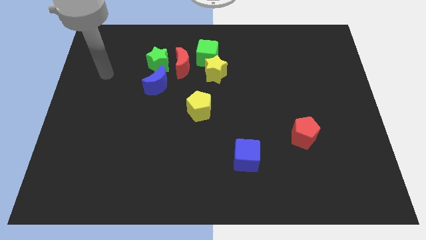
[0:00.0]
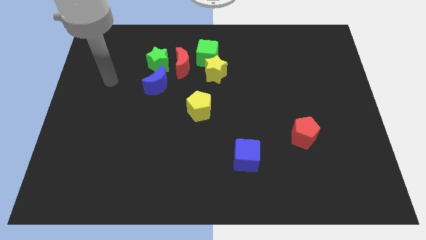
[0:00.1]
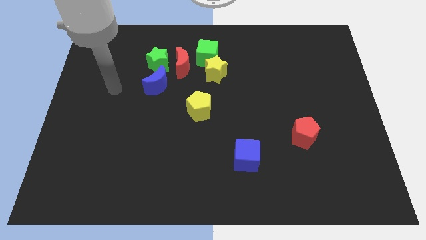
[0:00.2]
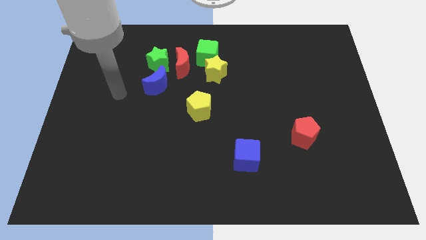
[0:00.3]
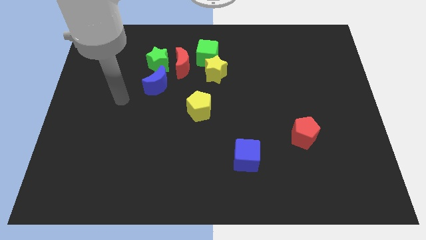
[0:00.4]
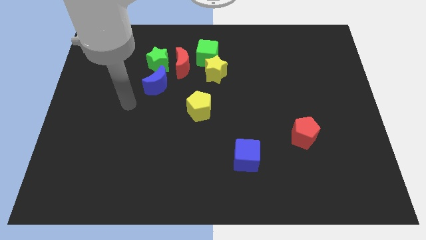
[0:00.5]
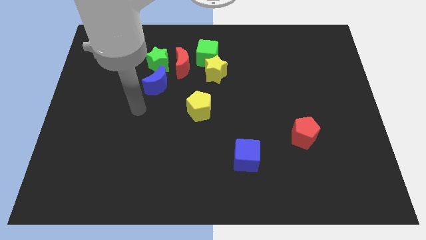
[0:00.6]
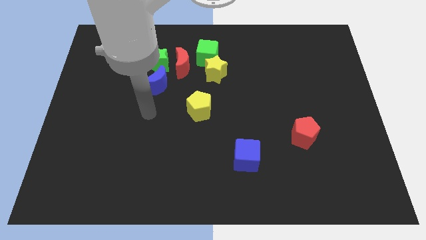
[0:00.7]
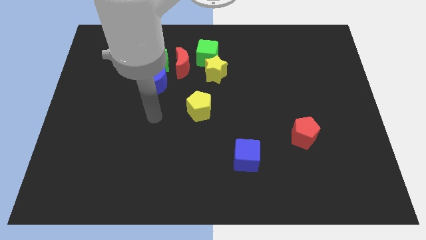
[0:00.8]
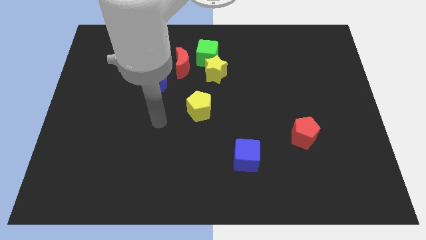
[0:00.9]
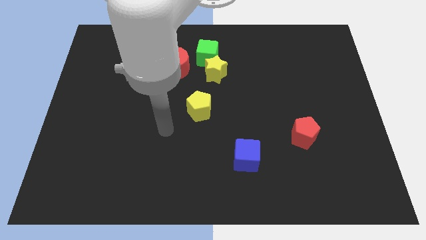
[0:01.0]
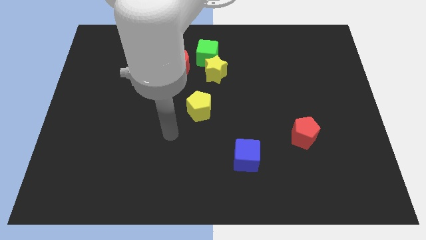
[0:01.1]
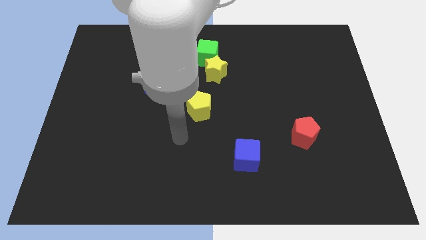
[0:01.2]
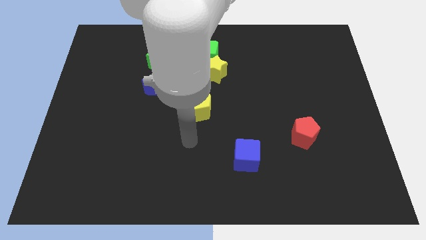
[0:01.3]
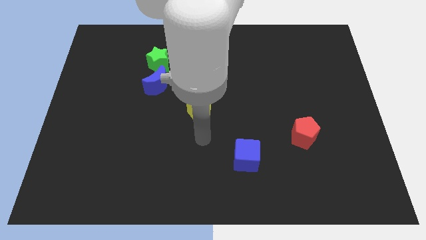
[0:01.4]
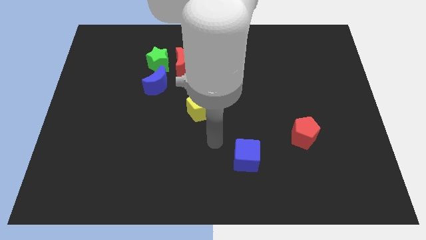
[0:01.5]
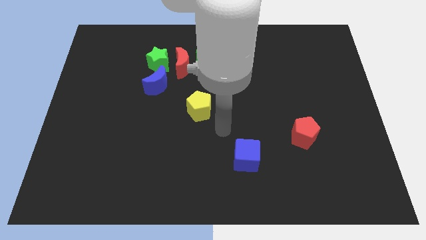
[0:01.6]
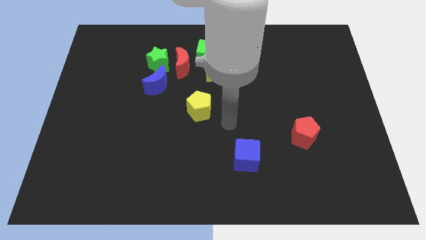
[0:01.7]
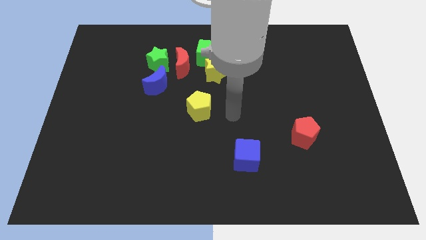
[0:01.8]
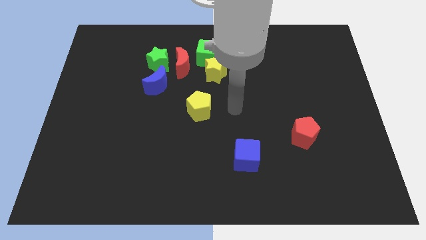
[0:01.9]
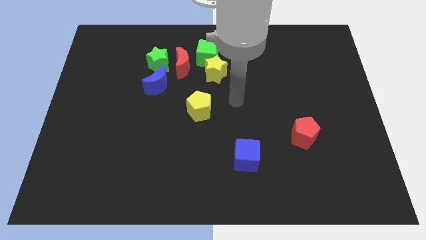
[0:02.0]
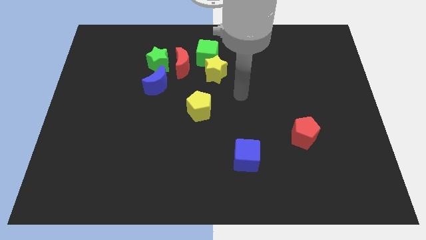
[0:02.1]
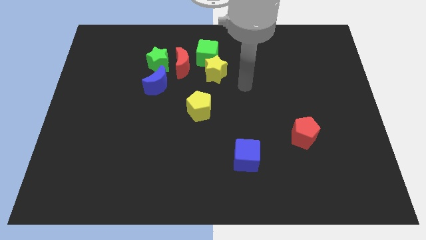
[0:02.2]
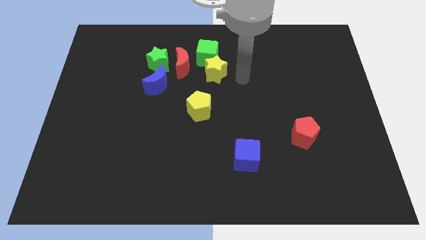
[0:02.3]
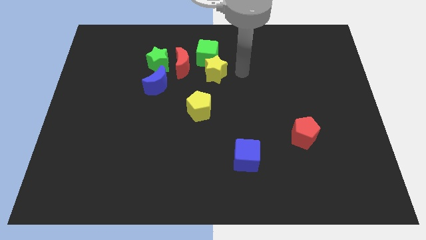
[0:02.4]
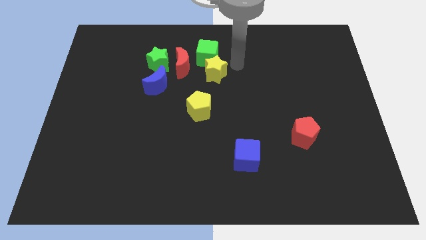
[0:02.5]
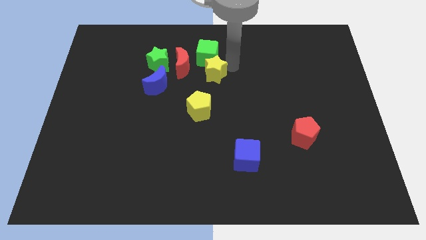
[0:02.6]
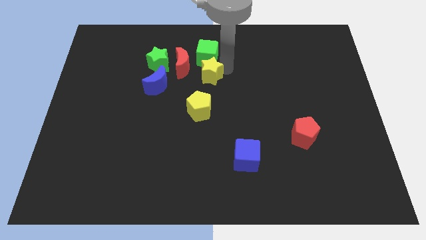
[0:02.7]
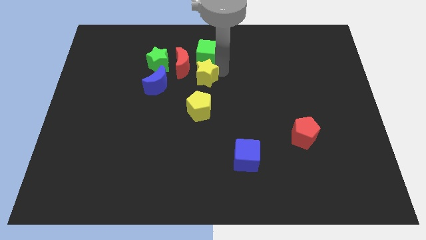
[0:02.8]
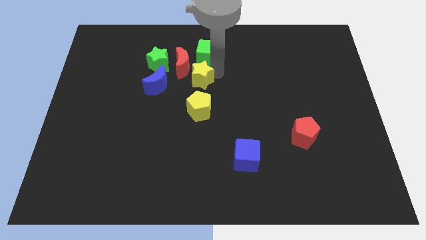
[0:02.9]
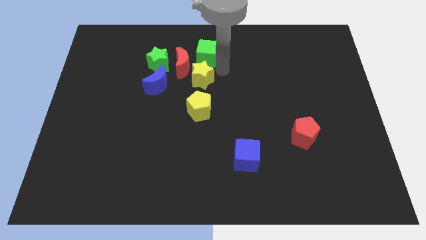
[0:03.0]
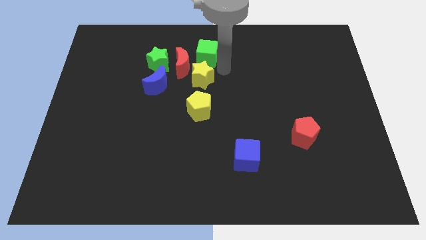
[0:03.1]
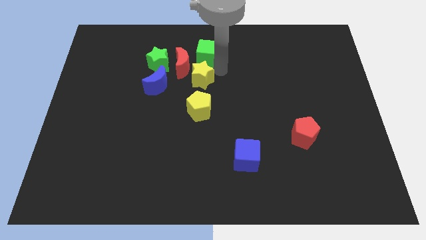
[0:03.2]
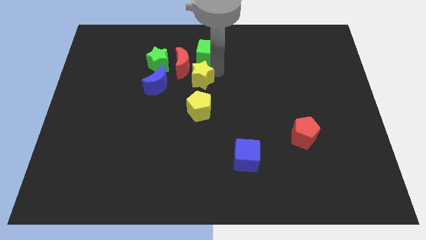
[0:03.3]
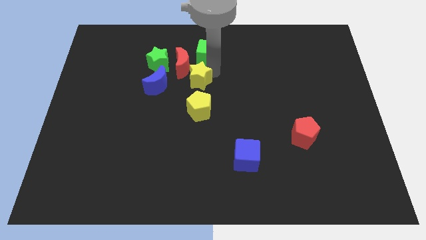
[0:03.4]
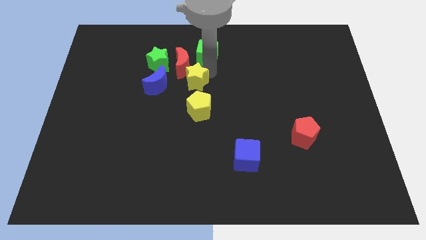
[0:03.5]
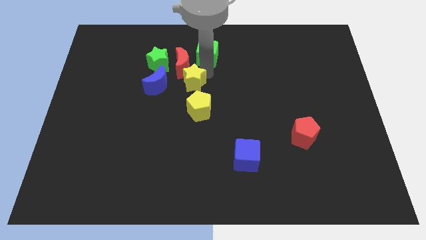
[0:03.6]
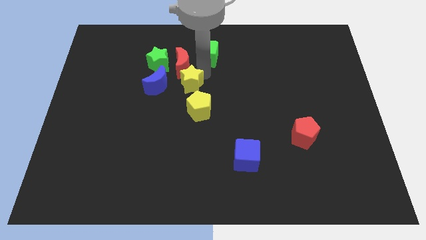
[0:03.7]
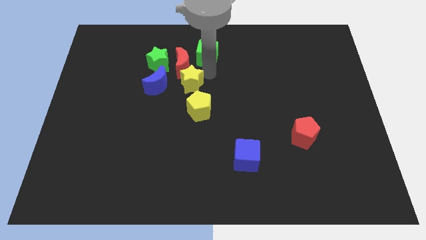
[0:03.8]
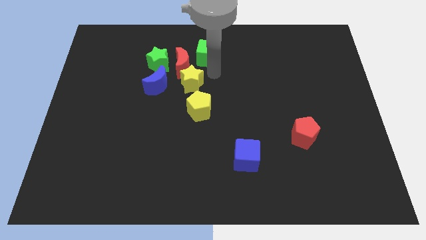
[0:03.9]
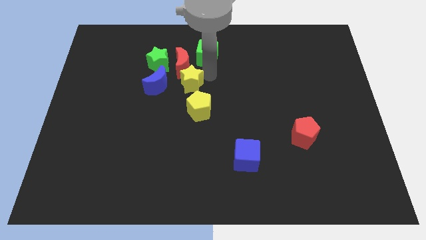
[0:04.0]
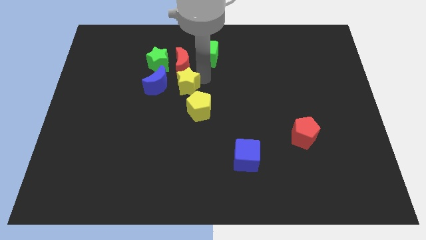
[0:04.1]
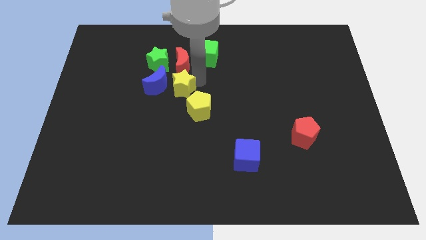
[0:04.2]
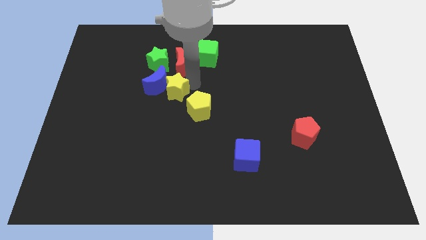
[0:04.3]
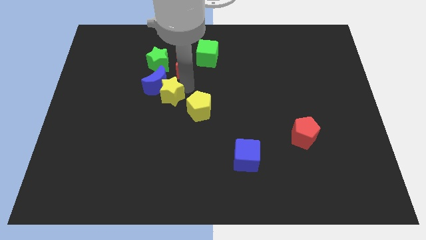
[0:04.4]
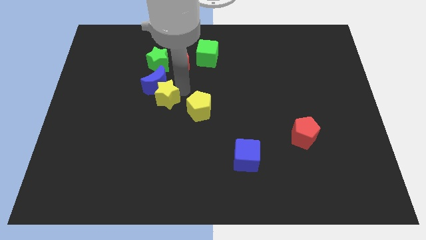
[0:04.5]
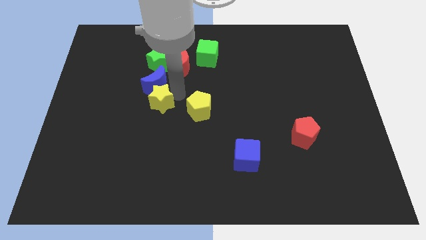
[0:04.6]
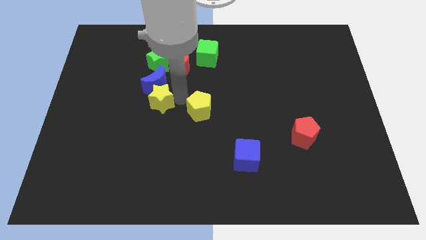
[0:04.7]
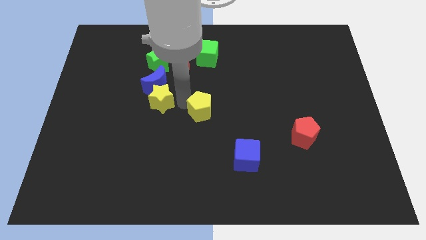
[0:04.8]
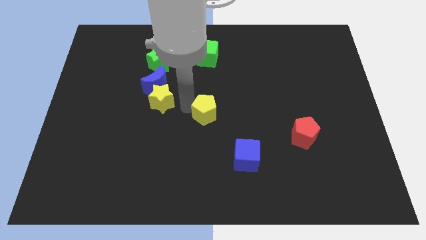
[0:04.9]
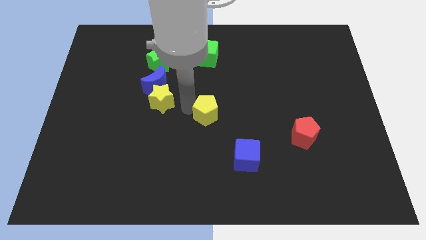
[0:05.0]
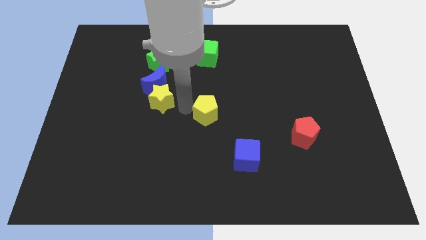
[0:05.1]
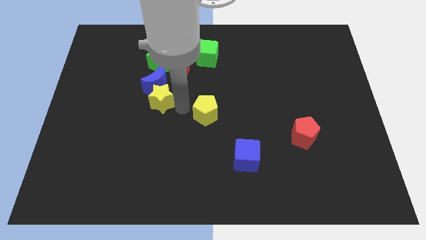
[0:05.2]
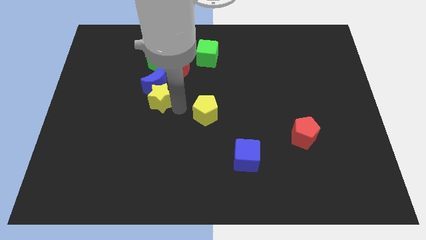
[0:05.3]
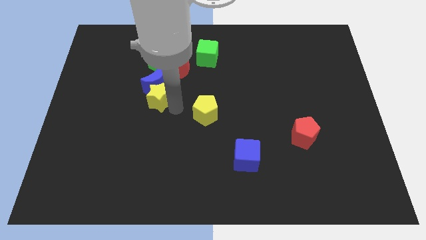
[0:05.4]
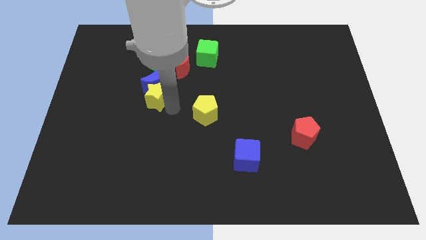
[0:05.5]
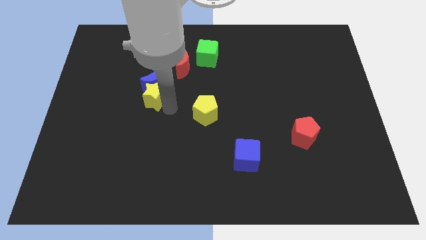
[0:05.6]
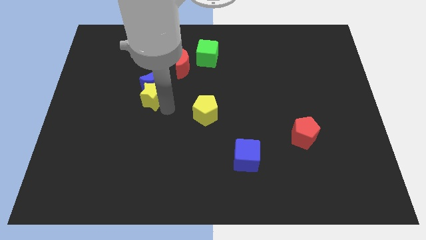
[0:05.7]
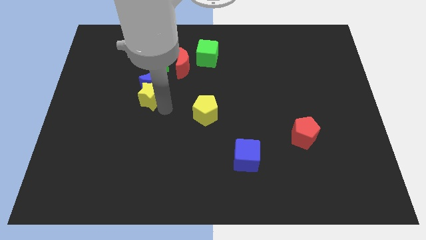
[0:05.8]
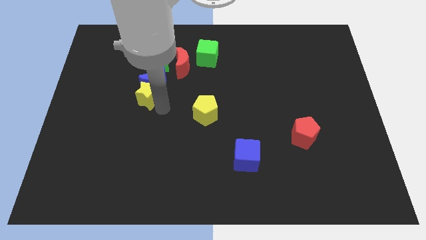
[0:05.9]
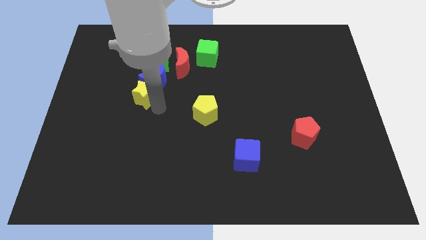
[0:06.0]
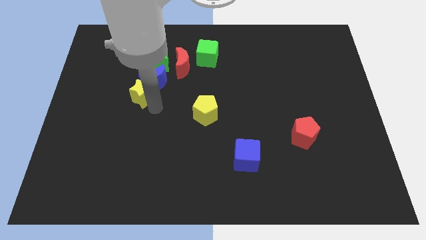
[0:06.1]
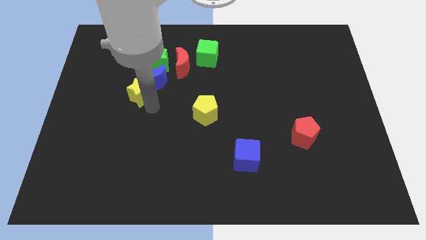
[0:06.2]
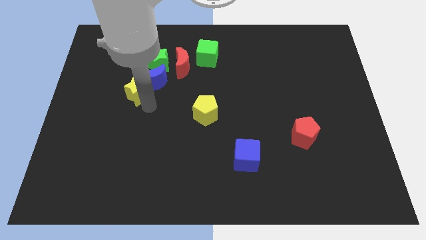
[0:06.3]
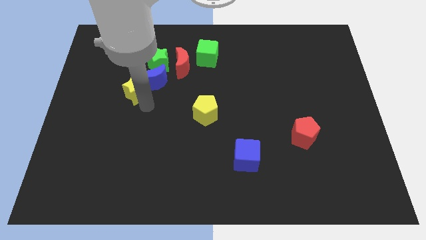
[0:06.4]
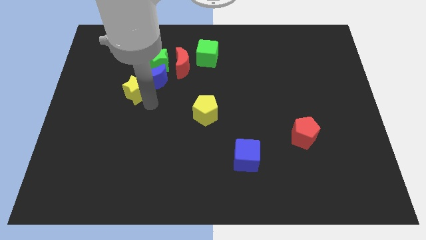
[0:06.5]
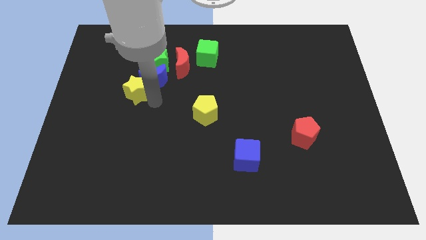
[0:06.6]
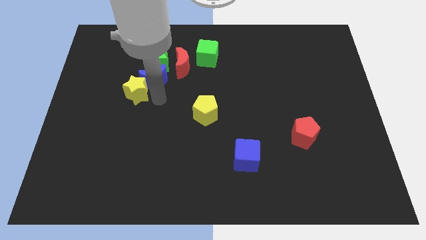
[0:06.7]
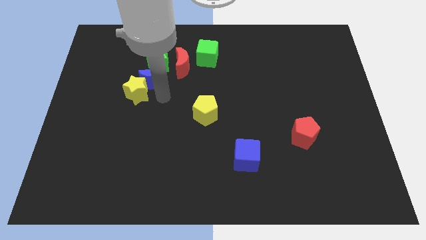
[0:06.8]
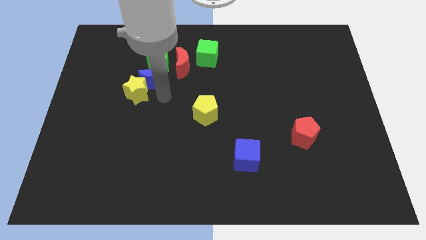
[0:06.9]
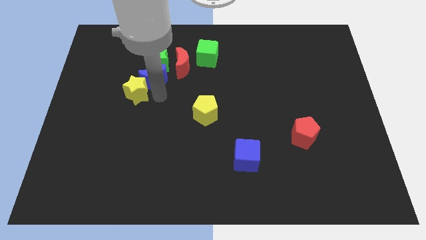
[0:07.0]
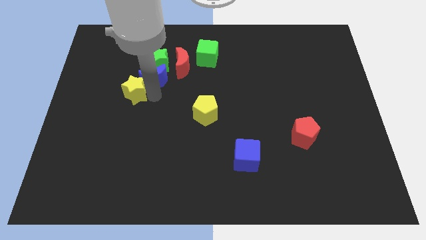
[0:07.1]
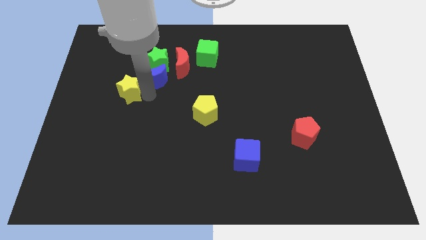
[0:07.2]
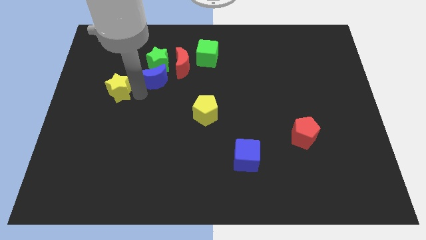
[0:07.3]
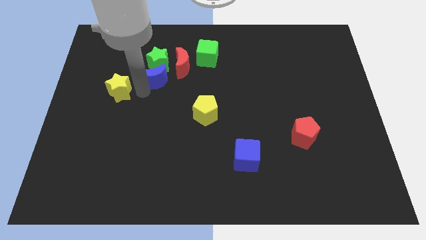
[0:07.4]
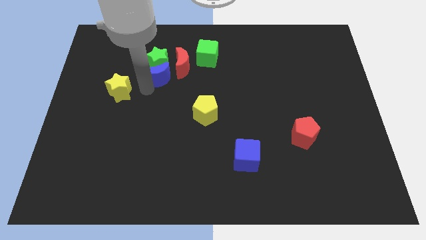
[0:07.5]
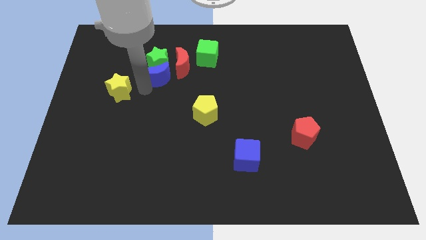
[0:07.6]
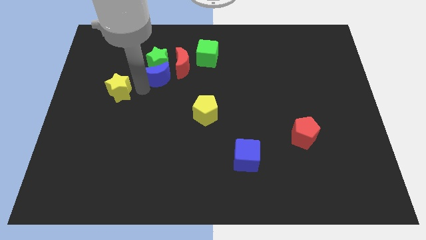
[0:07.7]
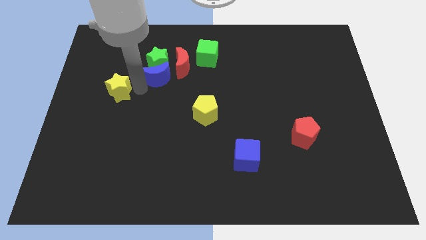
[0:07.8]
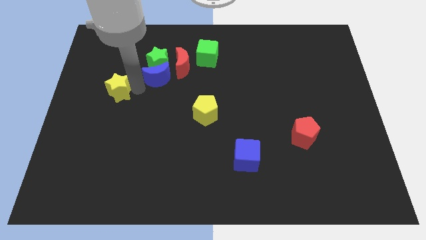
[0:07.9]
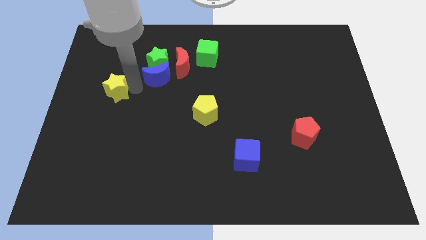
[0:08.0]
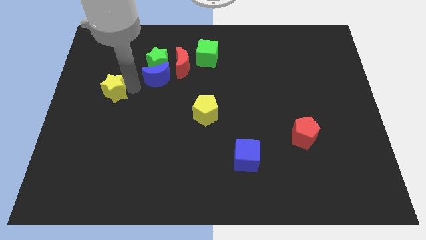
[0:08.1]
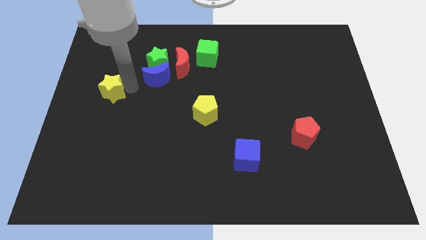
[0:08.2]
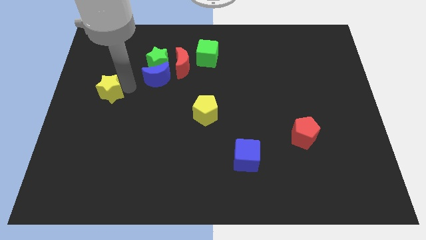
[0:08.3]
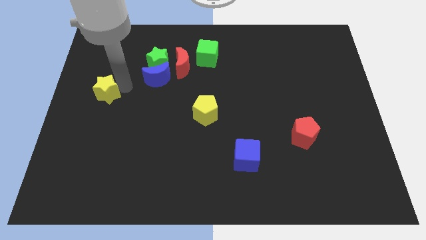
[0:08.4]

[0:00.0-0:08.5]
put the yellow star to the center left
